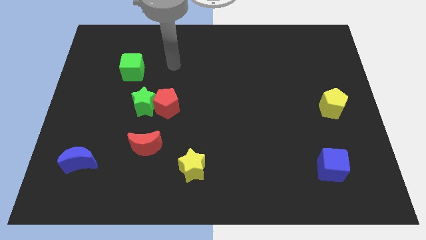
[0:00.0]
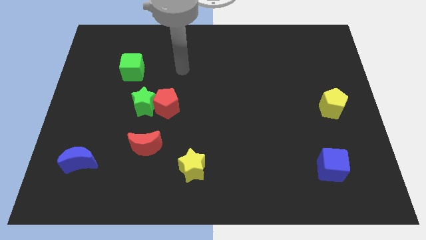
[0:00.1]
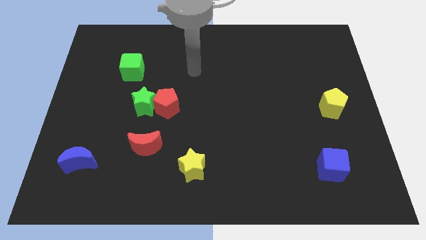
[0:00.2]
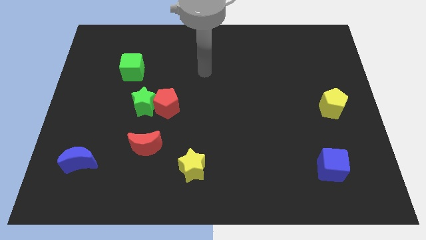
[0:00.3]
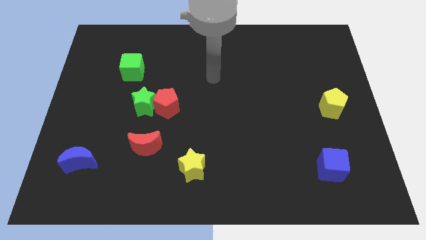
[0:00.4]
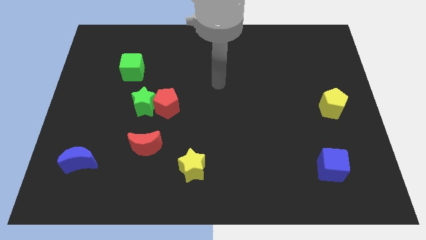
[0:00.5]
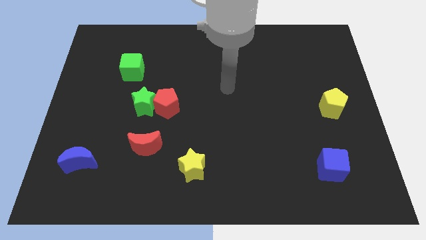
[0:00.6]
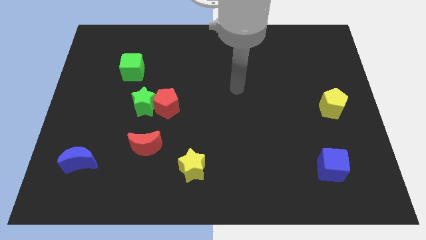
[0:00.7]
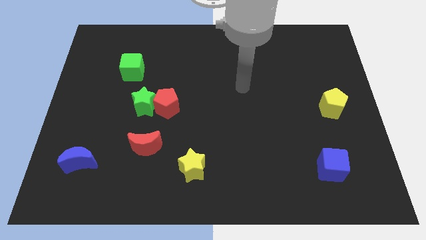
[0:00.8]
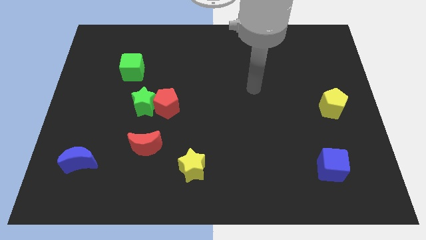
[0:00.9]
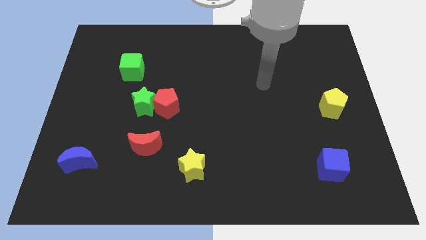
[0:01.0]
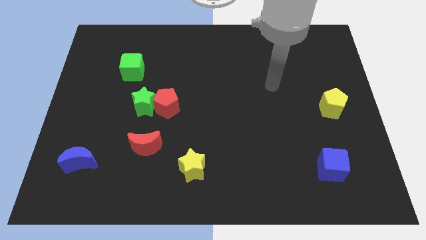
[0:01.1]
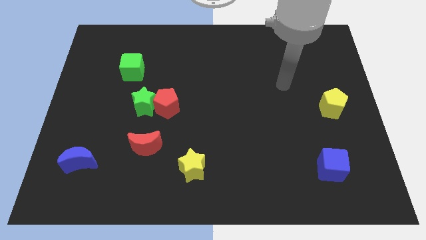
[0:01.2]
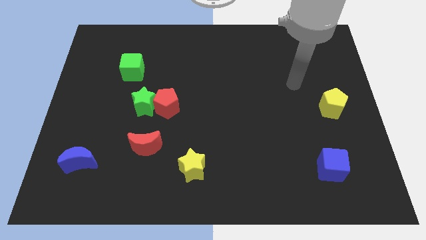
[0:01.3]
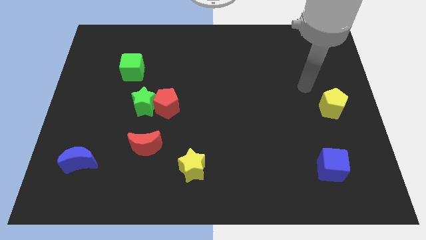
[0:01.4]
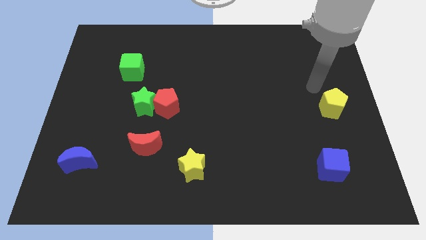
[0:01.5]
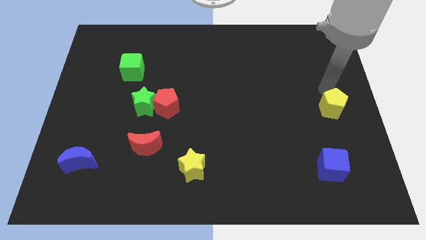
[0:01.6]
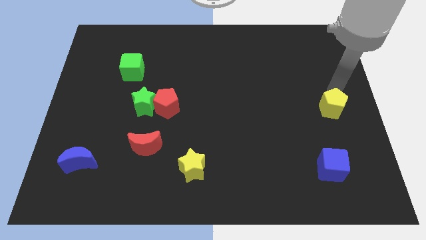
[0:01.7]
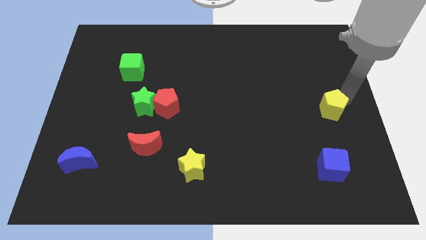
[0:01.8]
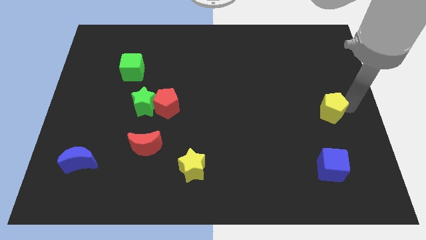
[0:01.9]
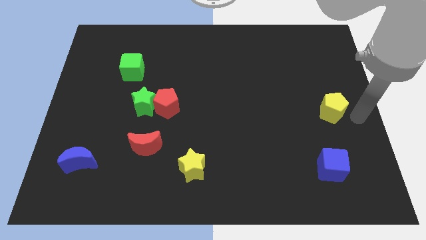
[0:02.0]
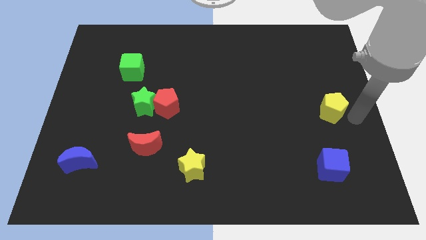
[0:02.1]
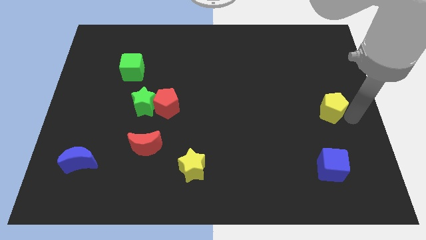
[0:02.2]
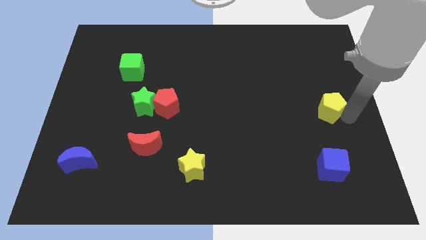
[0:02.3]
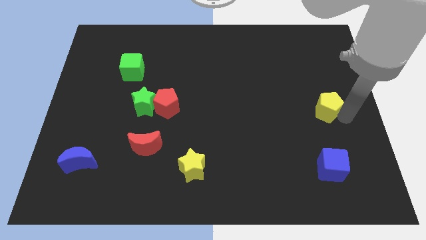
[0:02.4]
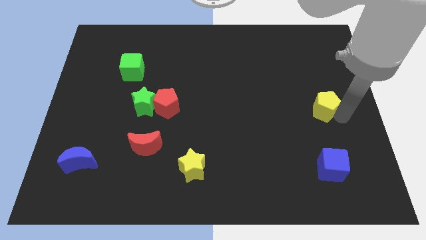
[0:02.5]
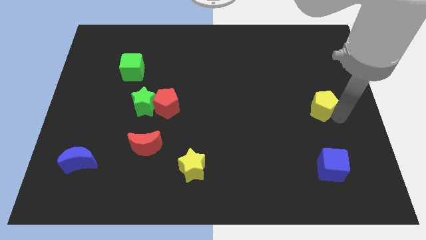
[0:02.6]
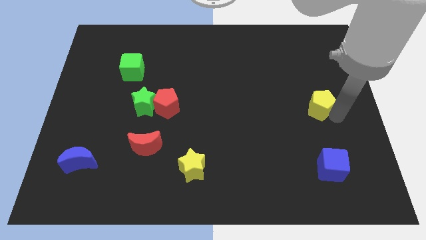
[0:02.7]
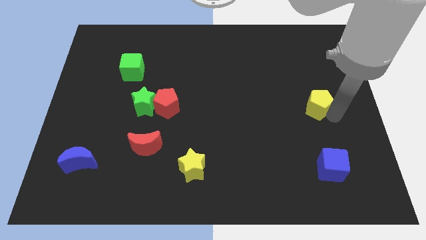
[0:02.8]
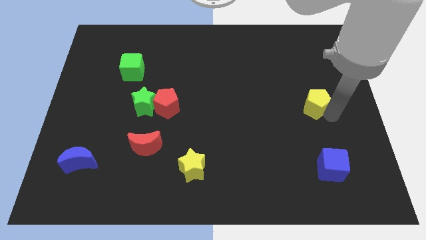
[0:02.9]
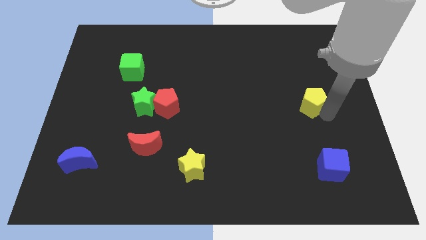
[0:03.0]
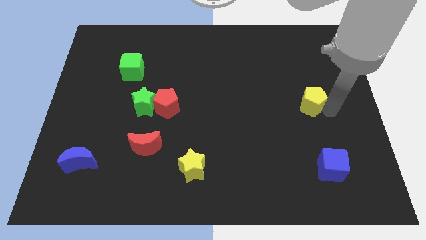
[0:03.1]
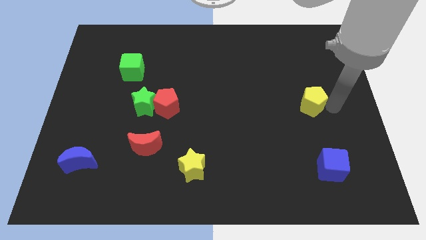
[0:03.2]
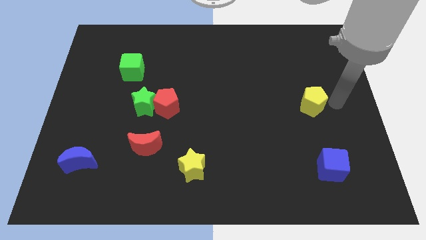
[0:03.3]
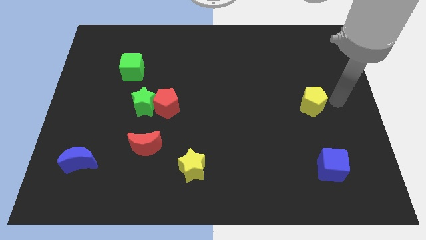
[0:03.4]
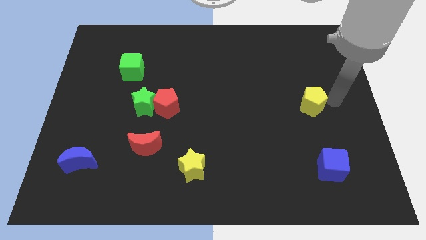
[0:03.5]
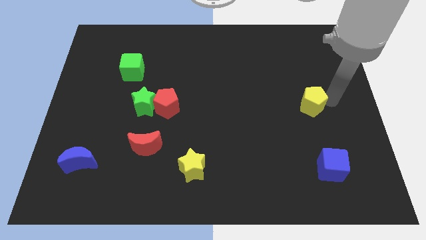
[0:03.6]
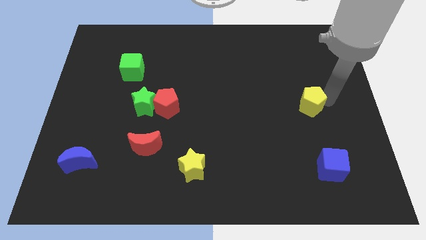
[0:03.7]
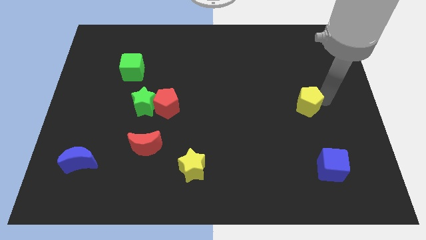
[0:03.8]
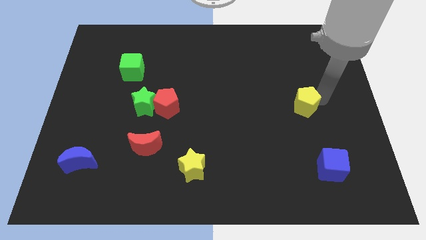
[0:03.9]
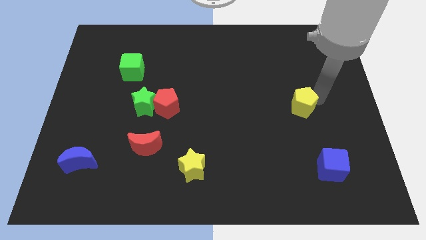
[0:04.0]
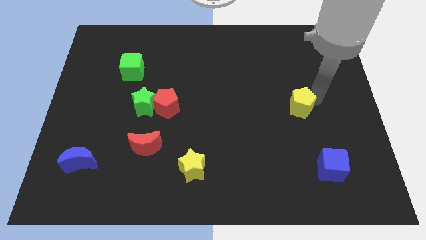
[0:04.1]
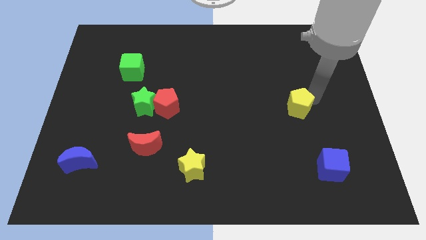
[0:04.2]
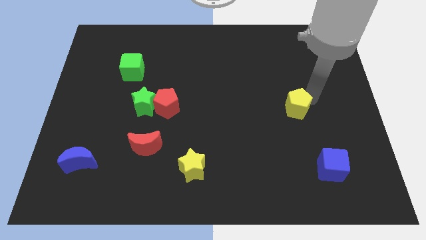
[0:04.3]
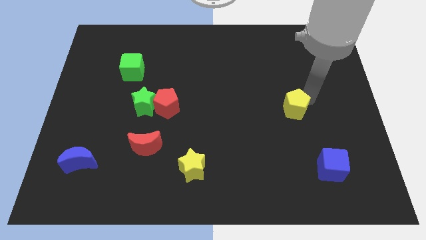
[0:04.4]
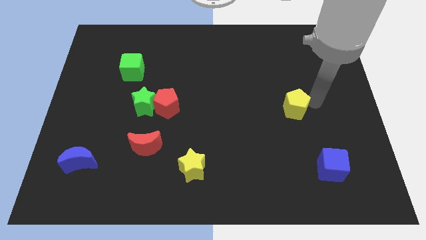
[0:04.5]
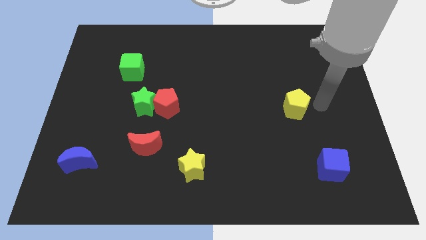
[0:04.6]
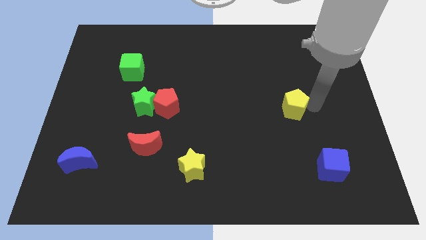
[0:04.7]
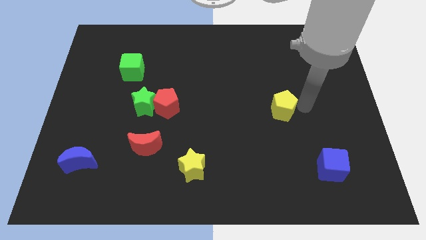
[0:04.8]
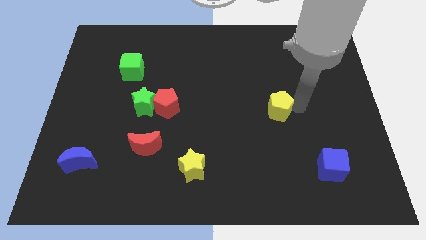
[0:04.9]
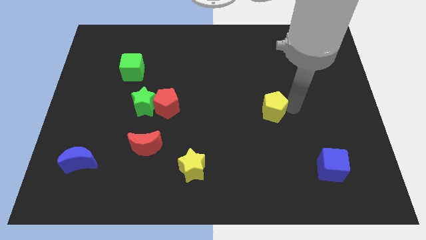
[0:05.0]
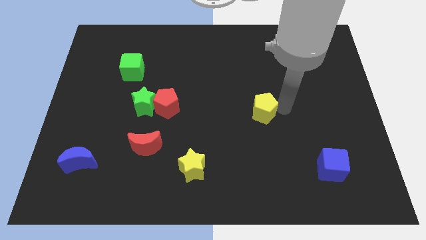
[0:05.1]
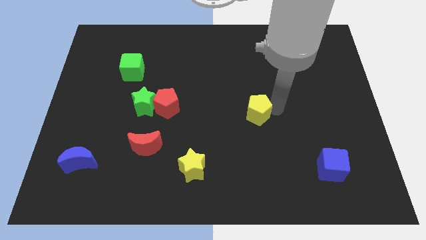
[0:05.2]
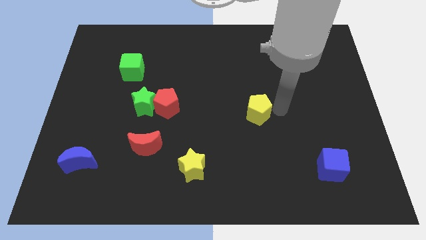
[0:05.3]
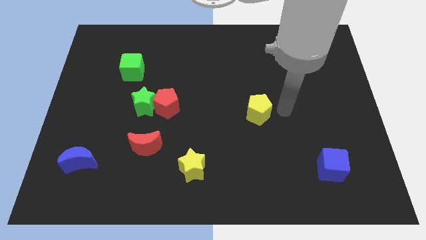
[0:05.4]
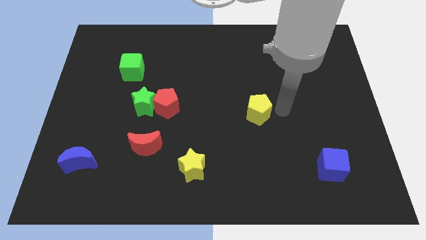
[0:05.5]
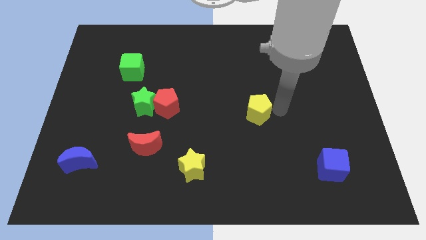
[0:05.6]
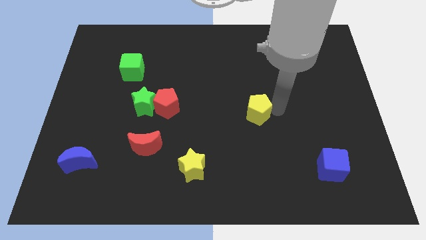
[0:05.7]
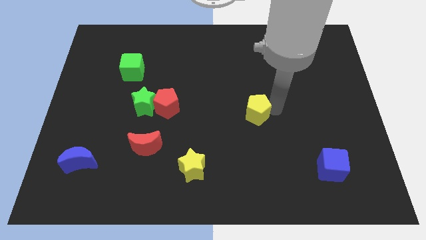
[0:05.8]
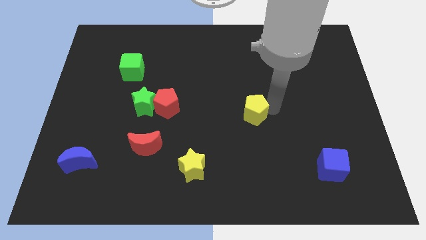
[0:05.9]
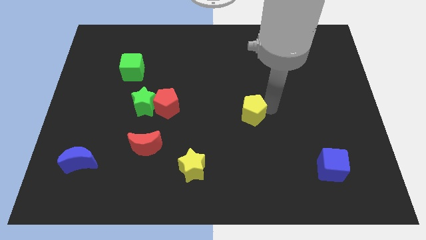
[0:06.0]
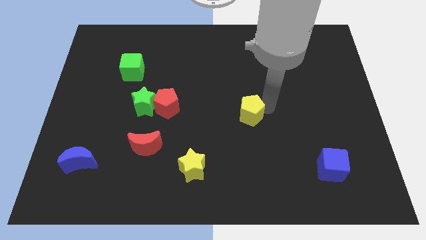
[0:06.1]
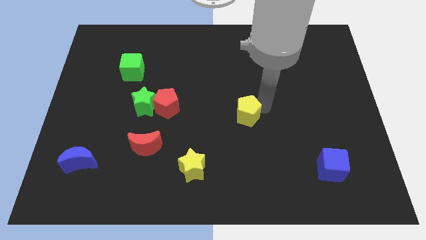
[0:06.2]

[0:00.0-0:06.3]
move the yellow pentagon to the left

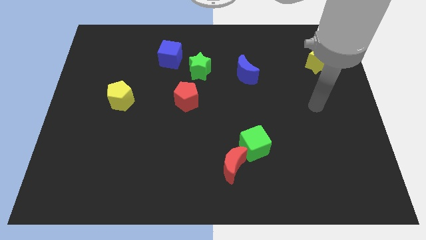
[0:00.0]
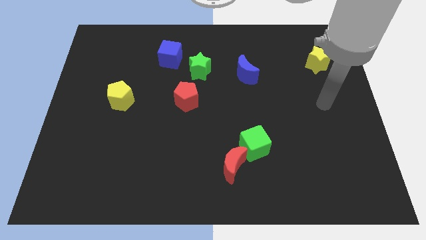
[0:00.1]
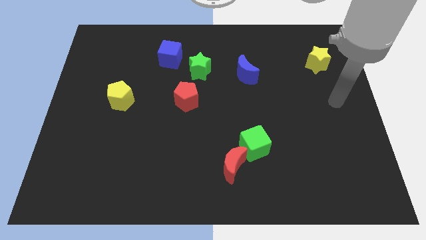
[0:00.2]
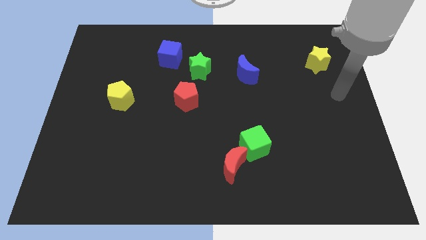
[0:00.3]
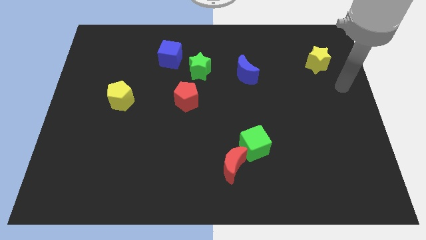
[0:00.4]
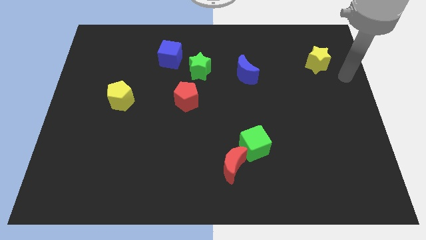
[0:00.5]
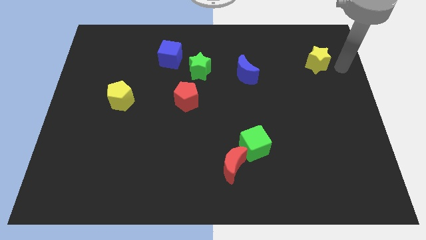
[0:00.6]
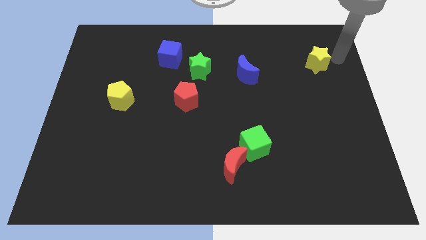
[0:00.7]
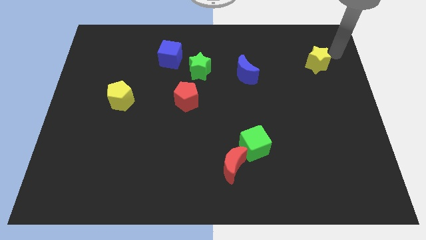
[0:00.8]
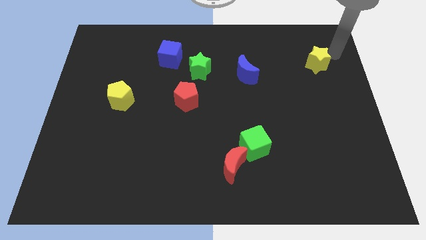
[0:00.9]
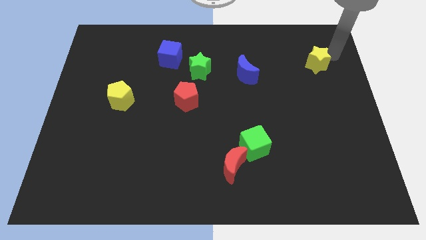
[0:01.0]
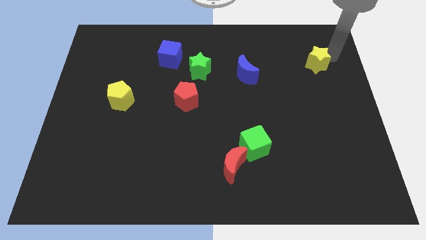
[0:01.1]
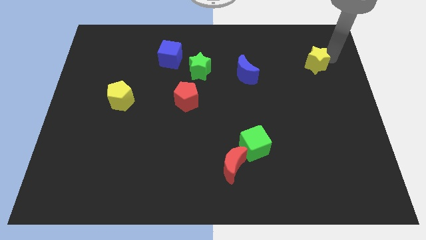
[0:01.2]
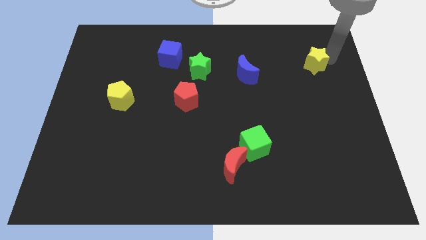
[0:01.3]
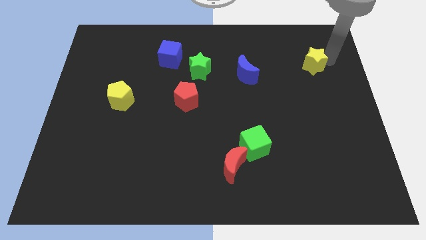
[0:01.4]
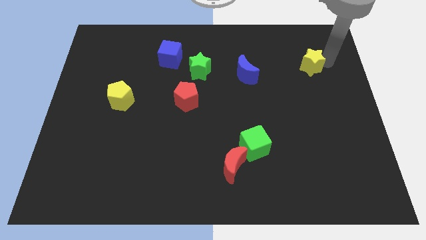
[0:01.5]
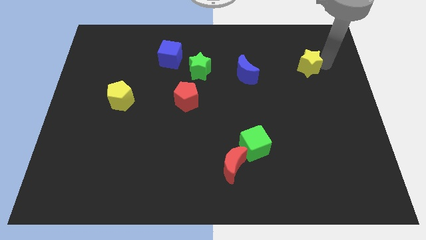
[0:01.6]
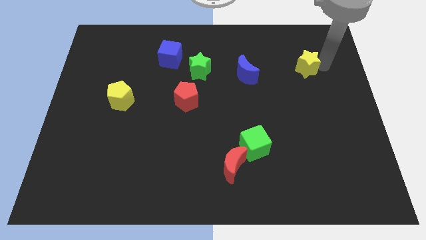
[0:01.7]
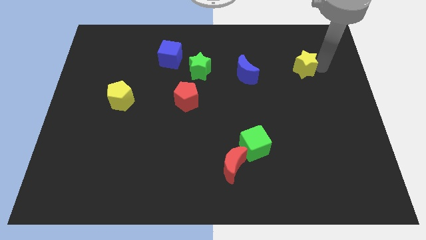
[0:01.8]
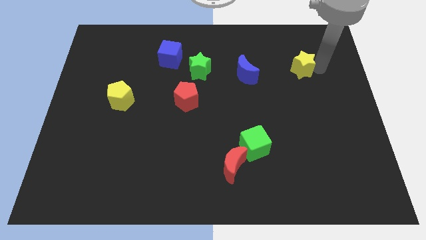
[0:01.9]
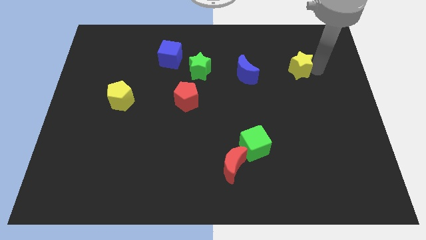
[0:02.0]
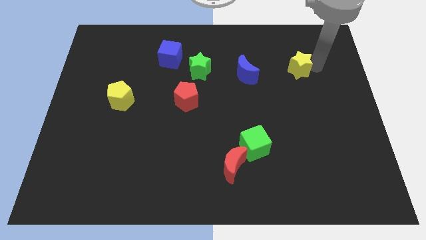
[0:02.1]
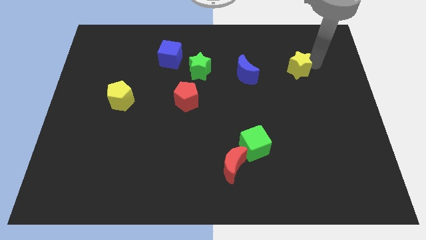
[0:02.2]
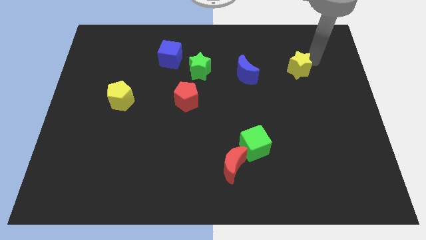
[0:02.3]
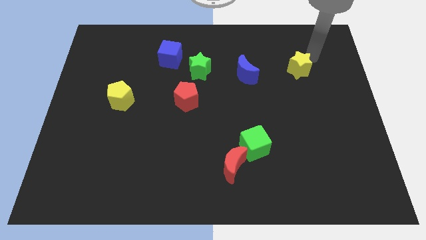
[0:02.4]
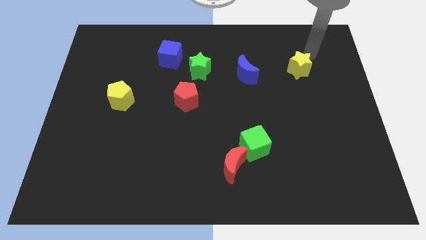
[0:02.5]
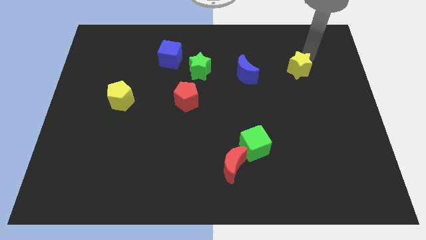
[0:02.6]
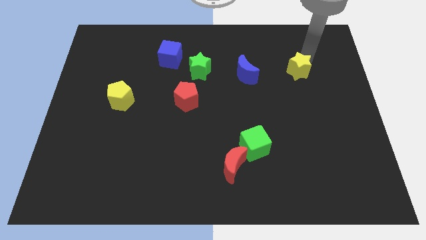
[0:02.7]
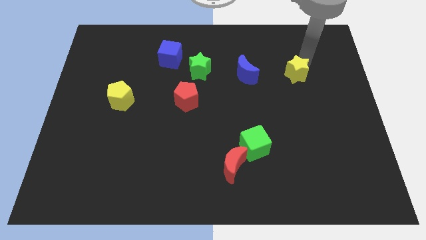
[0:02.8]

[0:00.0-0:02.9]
slightly slide the yellow star down and to the left diagonally
